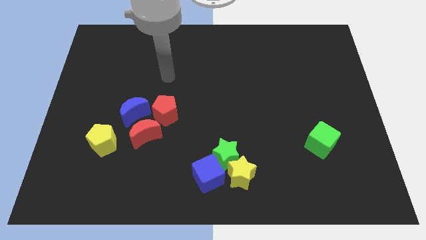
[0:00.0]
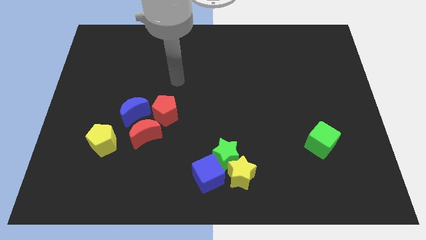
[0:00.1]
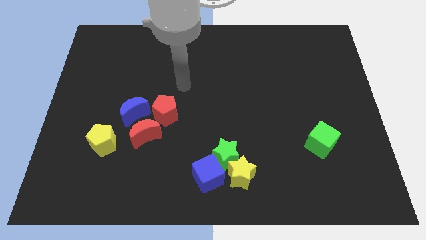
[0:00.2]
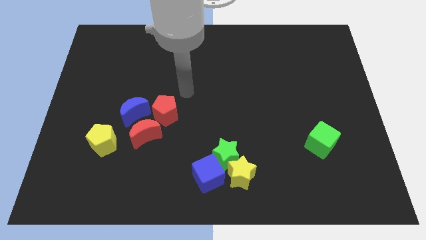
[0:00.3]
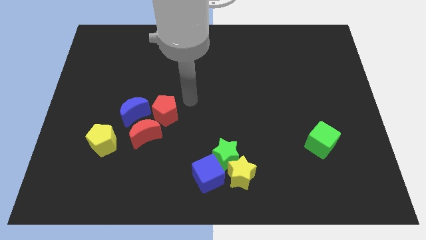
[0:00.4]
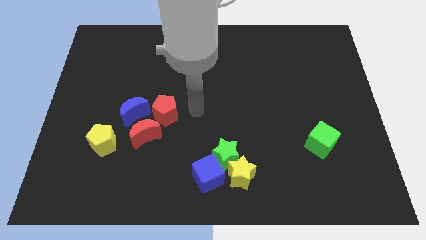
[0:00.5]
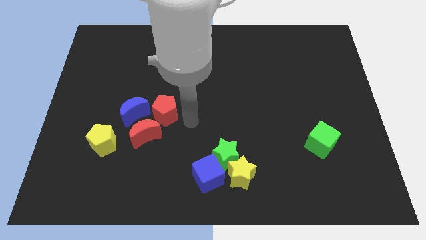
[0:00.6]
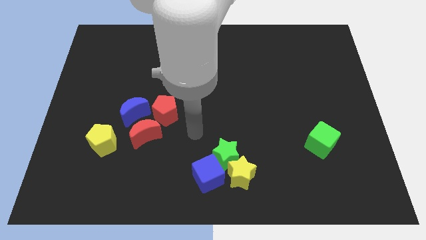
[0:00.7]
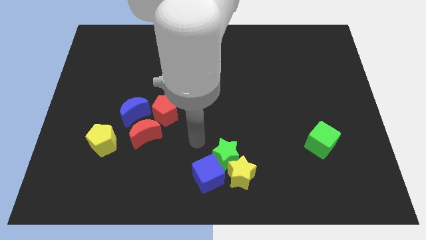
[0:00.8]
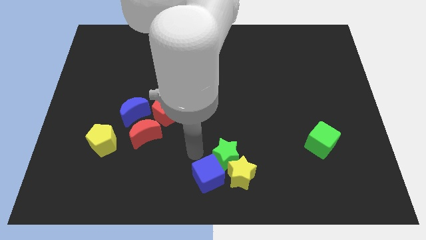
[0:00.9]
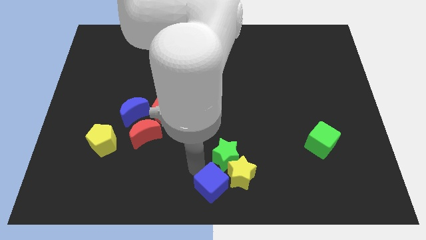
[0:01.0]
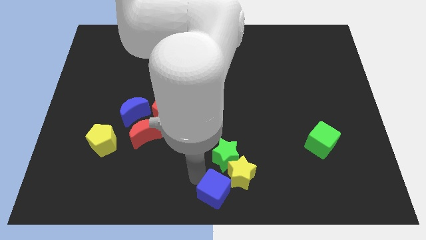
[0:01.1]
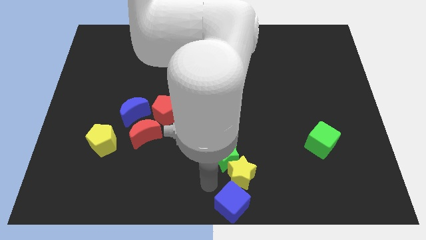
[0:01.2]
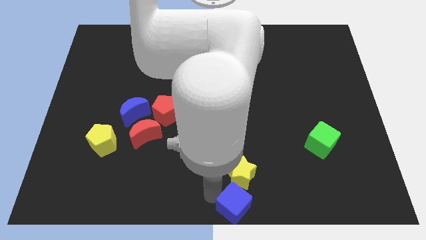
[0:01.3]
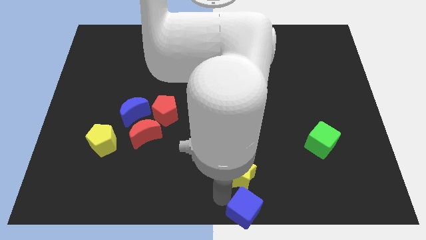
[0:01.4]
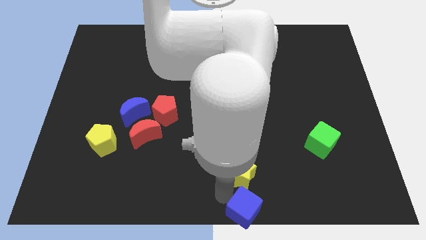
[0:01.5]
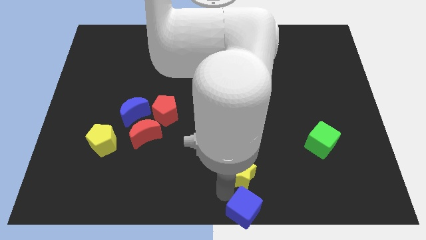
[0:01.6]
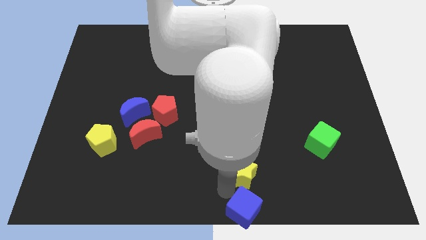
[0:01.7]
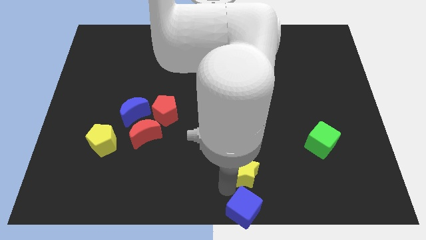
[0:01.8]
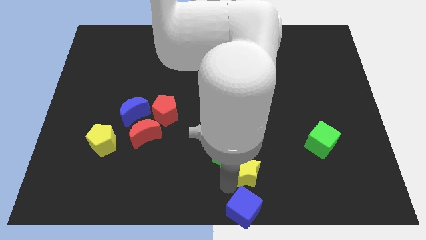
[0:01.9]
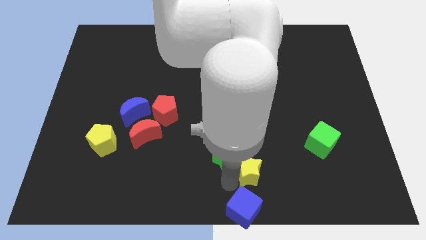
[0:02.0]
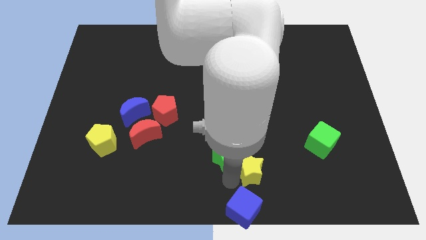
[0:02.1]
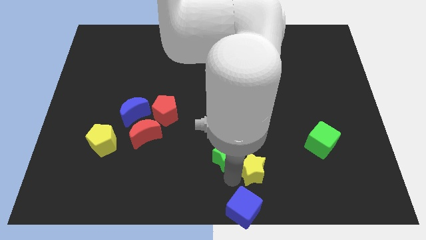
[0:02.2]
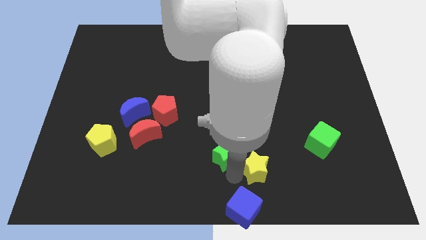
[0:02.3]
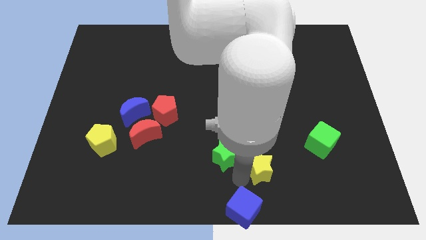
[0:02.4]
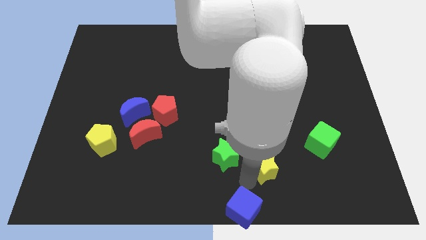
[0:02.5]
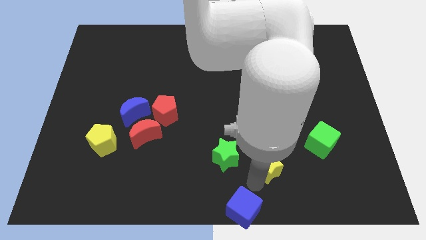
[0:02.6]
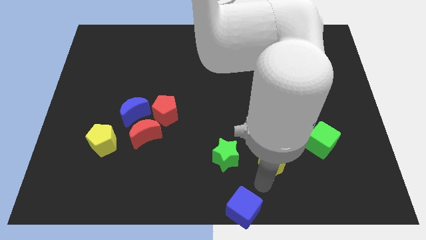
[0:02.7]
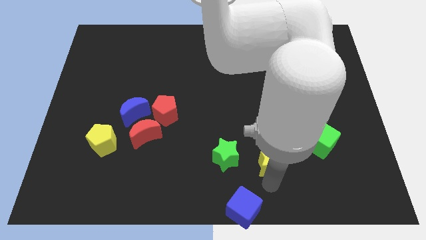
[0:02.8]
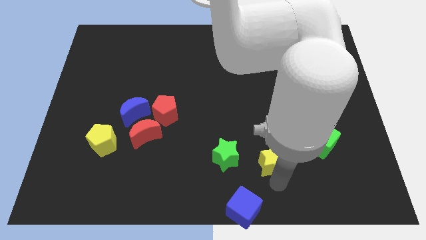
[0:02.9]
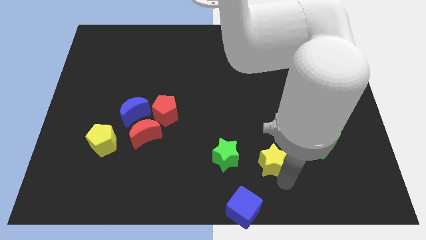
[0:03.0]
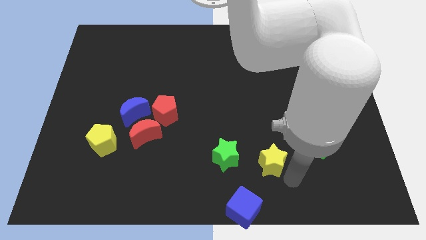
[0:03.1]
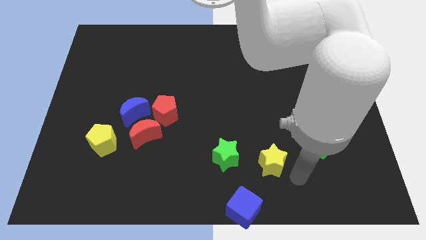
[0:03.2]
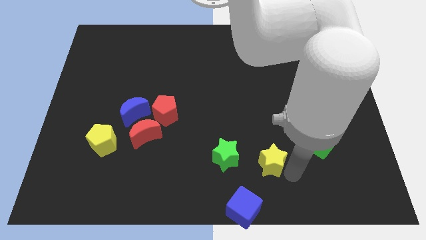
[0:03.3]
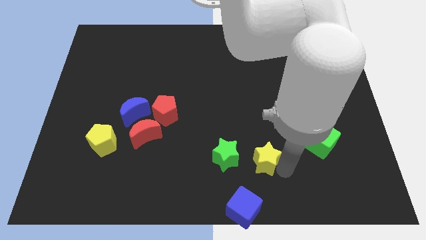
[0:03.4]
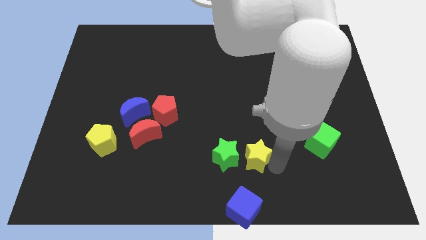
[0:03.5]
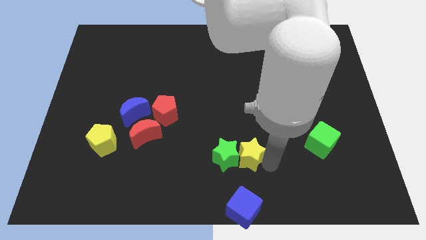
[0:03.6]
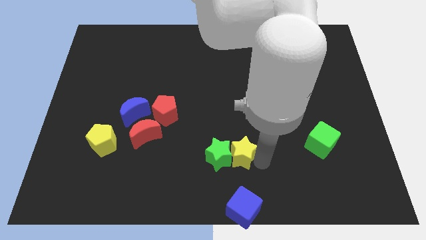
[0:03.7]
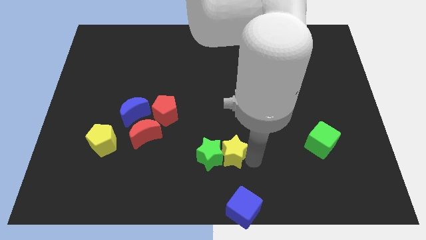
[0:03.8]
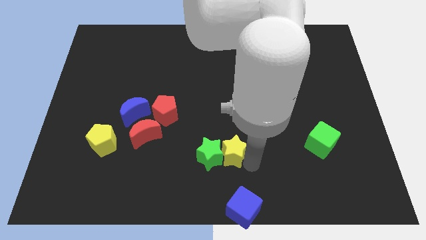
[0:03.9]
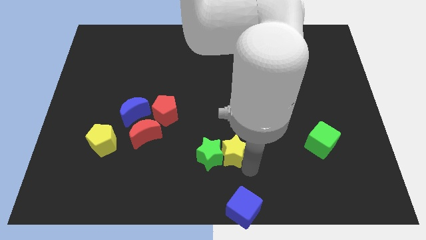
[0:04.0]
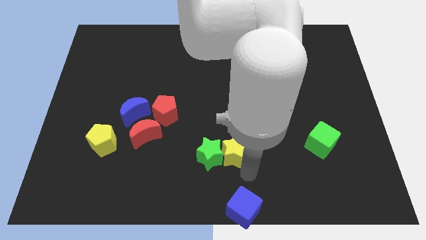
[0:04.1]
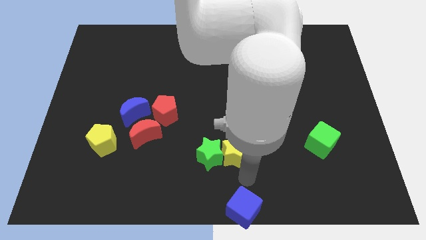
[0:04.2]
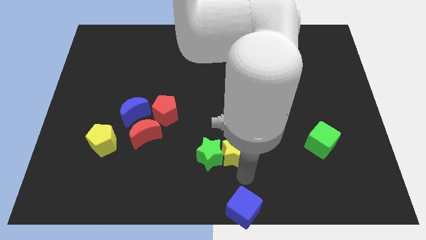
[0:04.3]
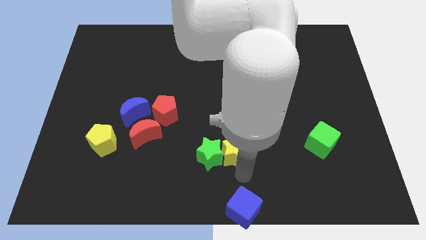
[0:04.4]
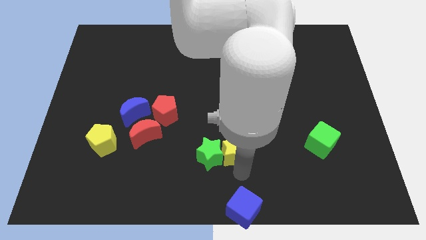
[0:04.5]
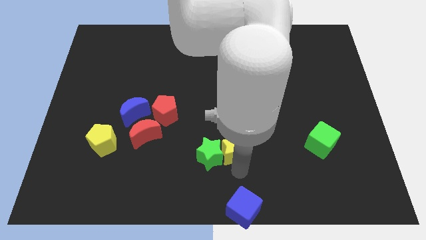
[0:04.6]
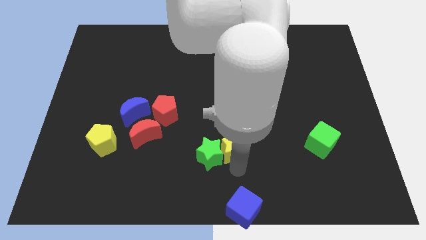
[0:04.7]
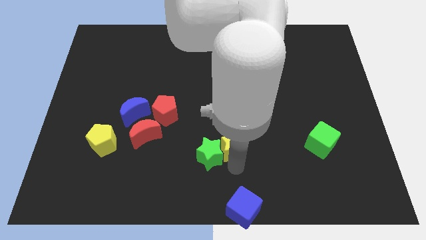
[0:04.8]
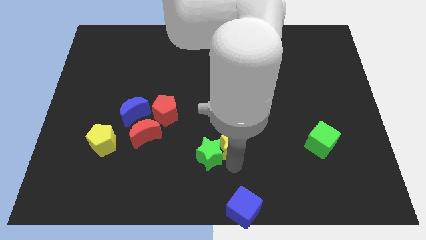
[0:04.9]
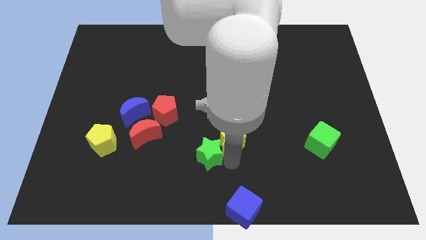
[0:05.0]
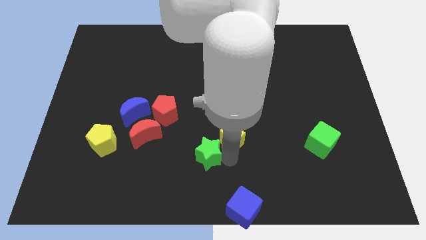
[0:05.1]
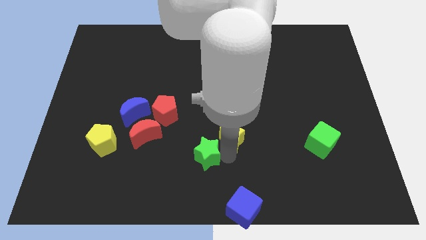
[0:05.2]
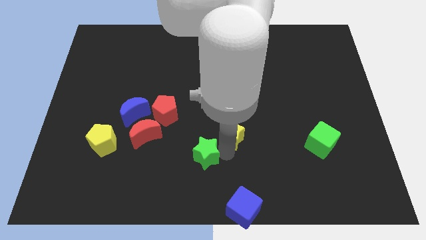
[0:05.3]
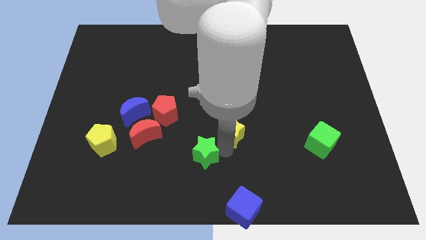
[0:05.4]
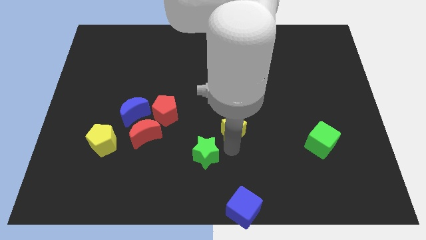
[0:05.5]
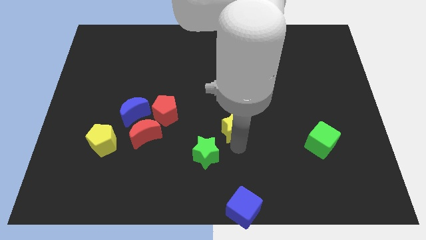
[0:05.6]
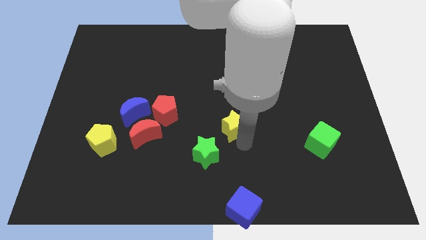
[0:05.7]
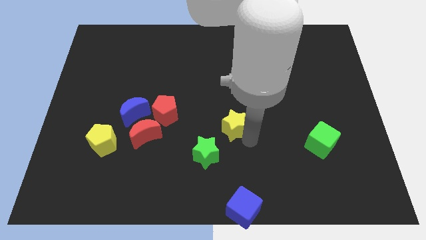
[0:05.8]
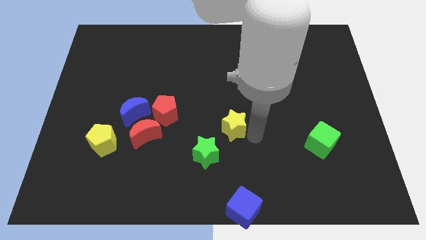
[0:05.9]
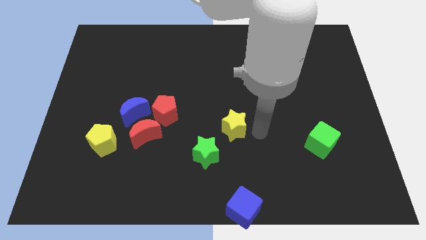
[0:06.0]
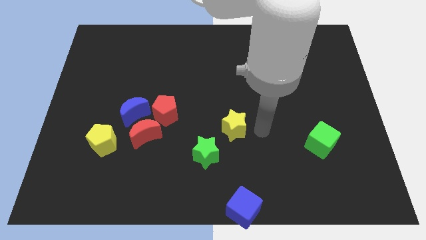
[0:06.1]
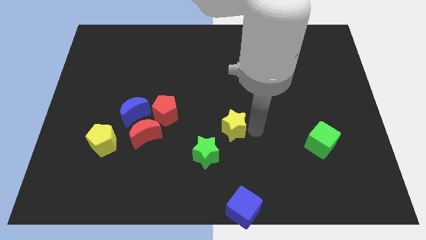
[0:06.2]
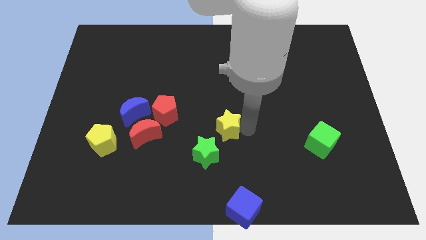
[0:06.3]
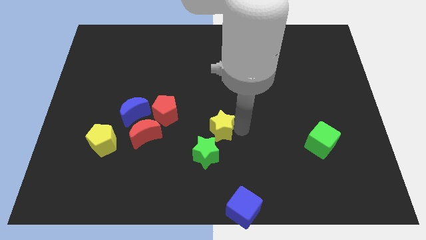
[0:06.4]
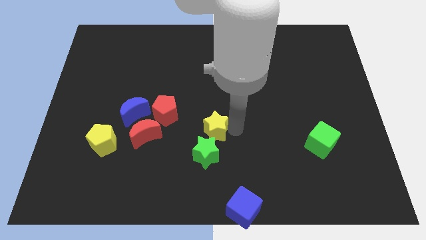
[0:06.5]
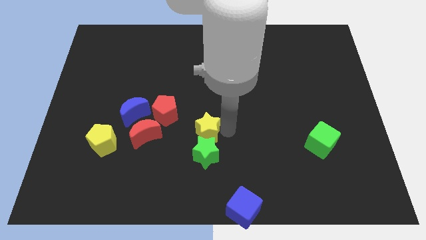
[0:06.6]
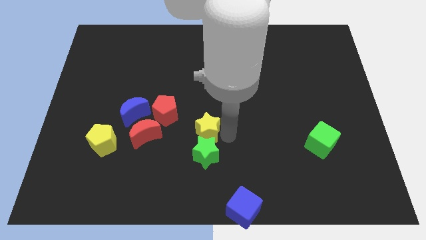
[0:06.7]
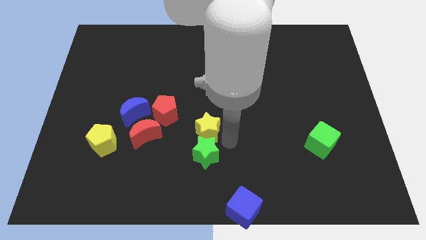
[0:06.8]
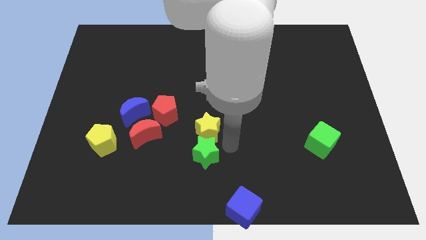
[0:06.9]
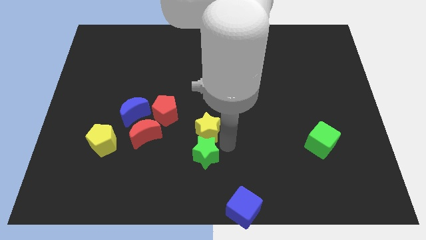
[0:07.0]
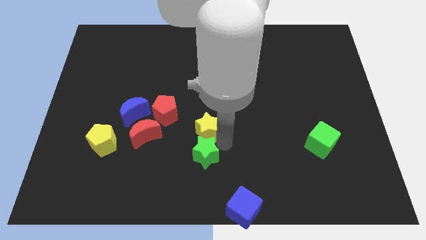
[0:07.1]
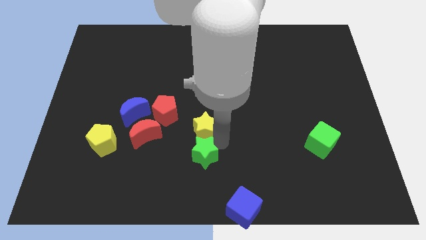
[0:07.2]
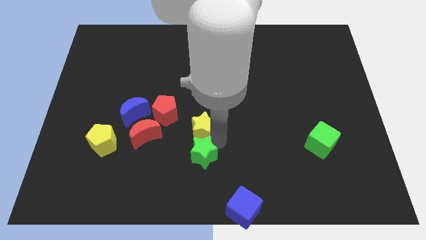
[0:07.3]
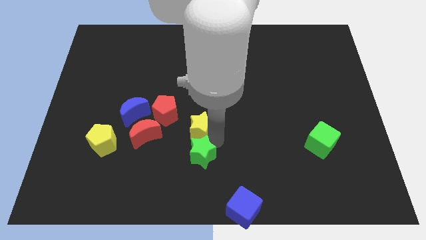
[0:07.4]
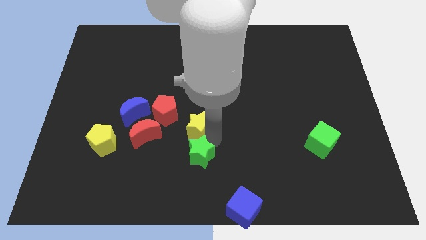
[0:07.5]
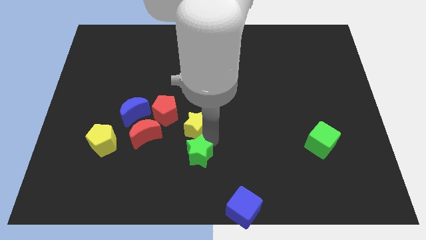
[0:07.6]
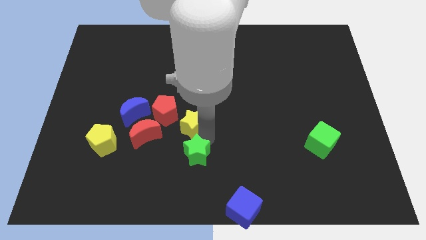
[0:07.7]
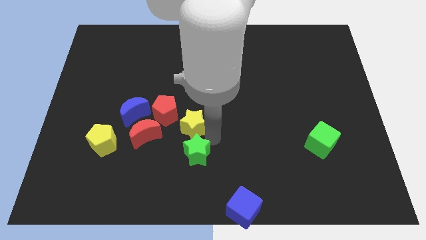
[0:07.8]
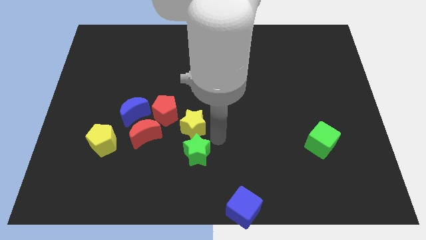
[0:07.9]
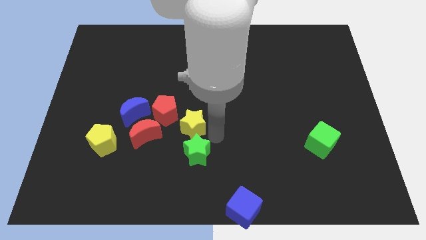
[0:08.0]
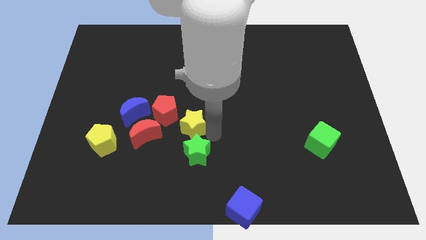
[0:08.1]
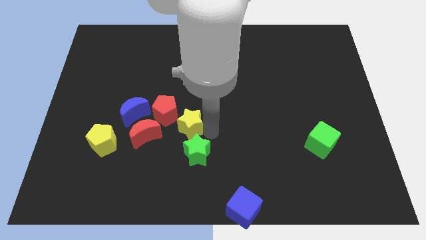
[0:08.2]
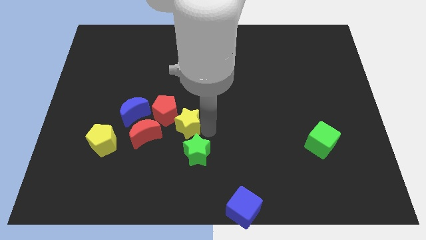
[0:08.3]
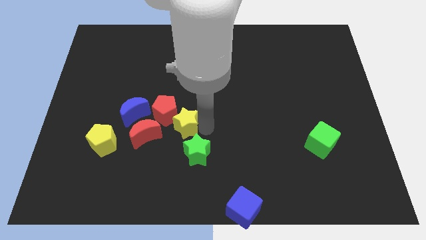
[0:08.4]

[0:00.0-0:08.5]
move the yellow star to the red pentagon
